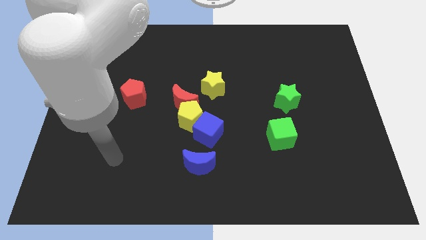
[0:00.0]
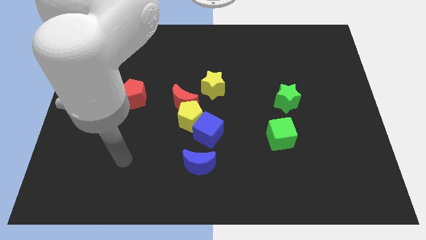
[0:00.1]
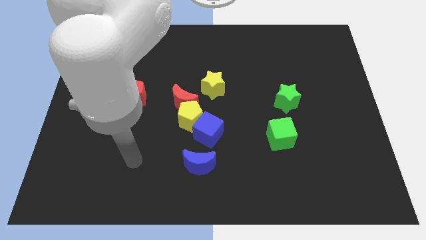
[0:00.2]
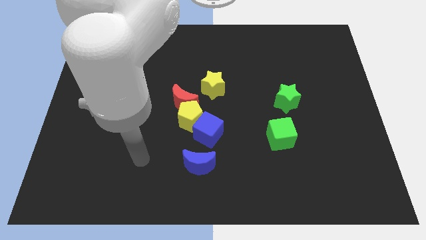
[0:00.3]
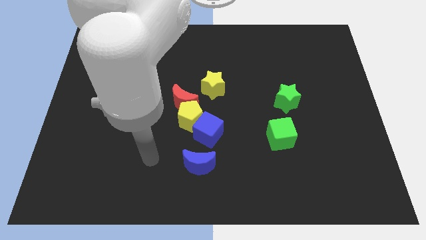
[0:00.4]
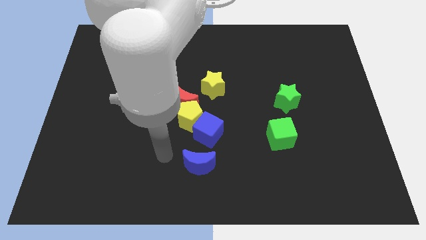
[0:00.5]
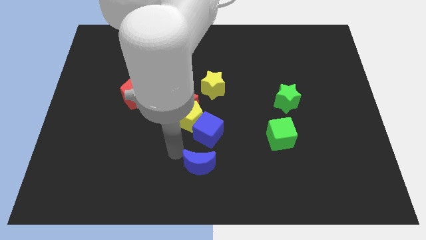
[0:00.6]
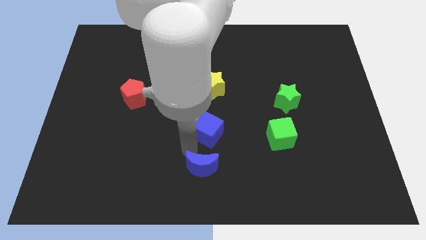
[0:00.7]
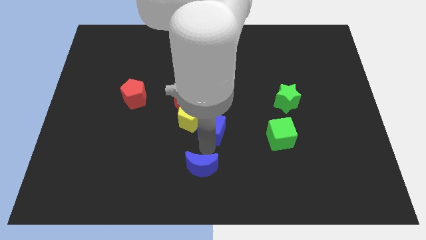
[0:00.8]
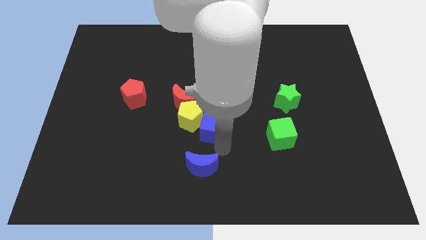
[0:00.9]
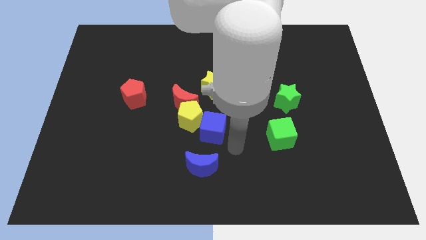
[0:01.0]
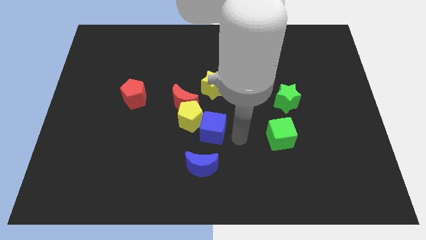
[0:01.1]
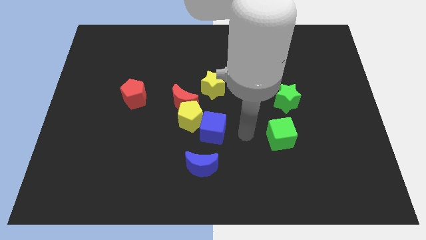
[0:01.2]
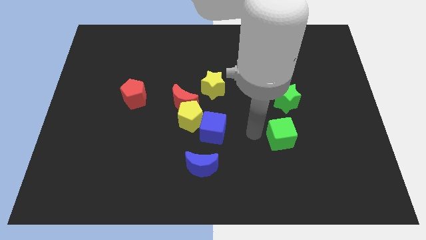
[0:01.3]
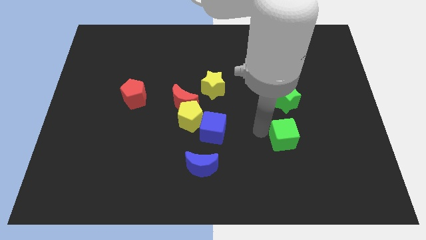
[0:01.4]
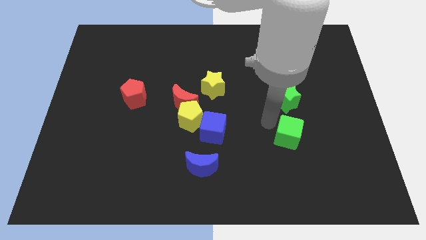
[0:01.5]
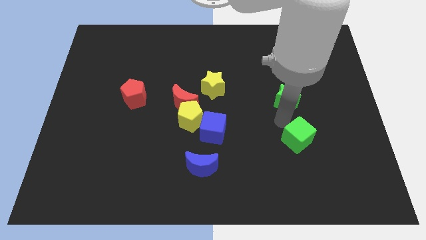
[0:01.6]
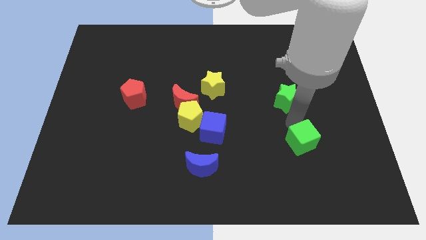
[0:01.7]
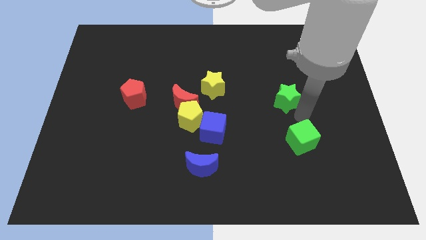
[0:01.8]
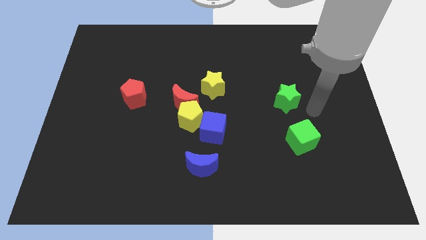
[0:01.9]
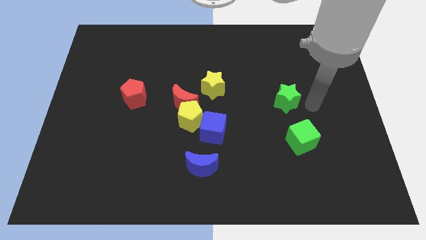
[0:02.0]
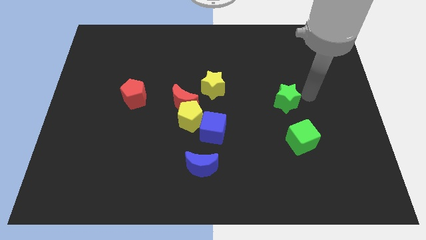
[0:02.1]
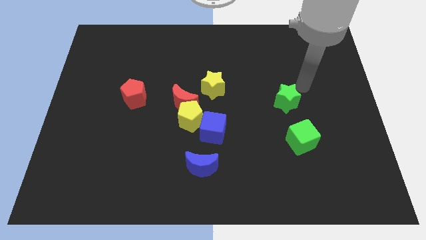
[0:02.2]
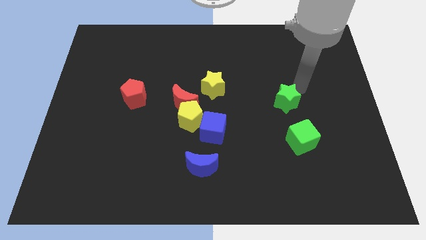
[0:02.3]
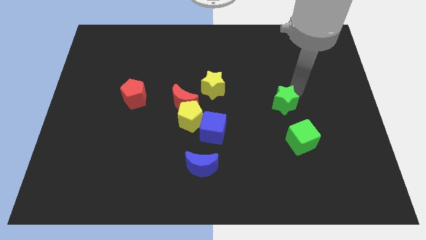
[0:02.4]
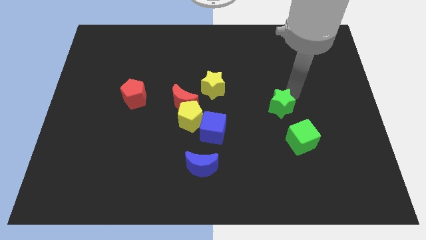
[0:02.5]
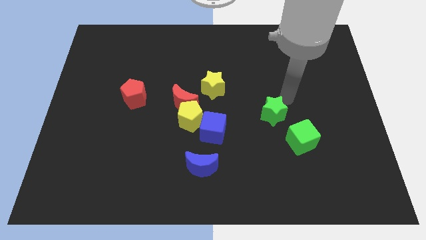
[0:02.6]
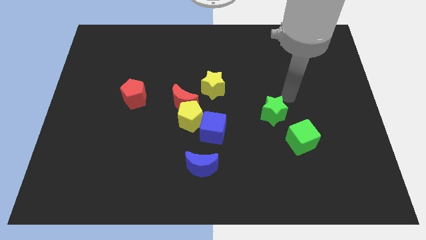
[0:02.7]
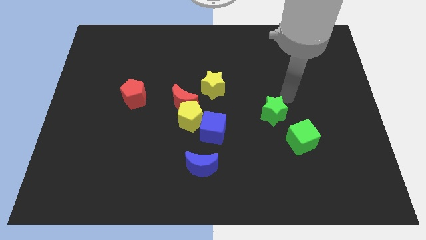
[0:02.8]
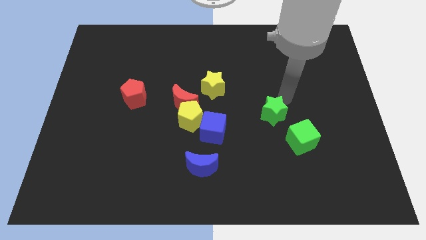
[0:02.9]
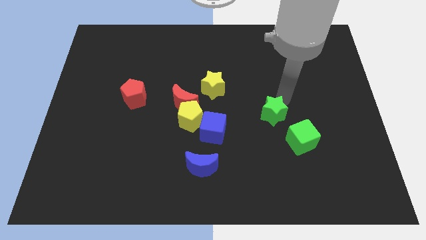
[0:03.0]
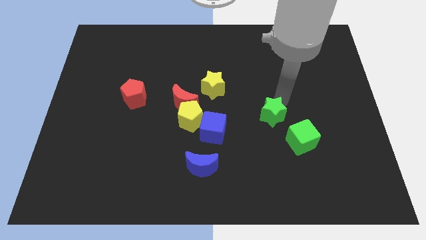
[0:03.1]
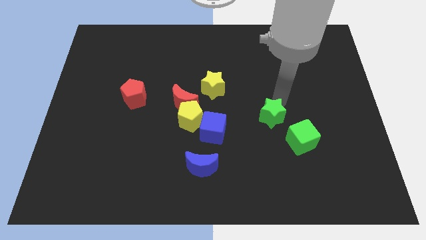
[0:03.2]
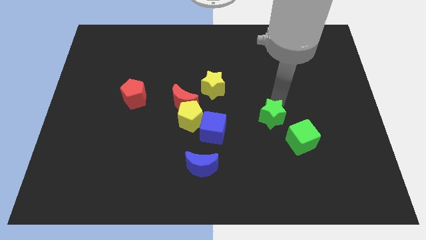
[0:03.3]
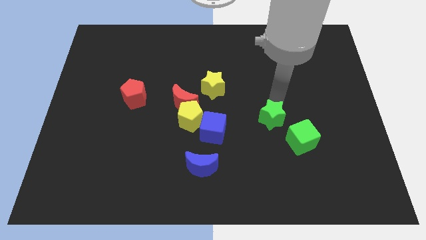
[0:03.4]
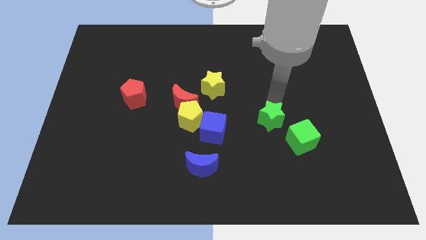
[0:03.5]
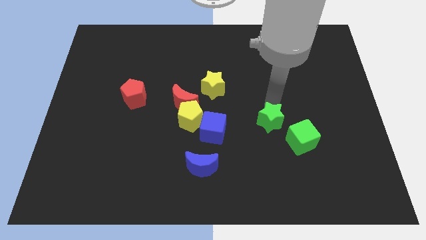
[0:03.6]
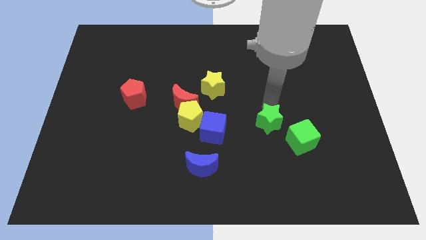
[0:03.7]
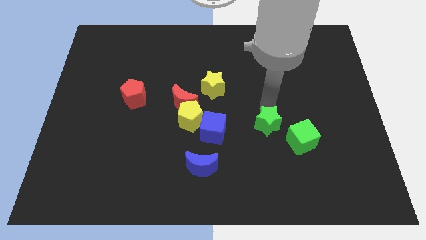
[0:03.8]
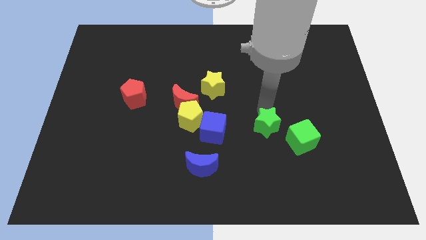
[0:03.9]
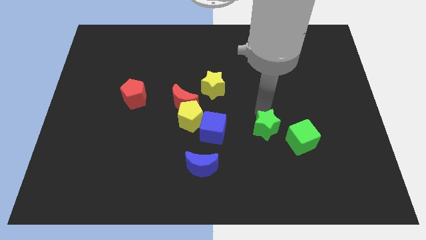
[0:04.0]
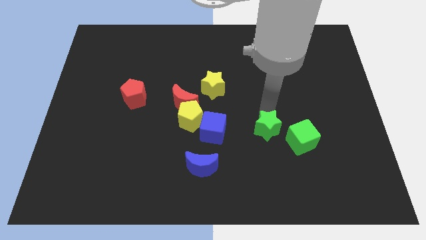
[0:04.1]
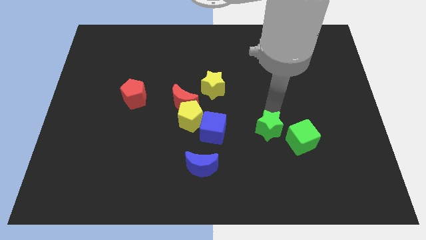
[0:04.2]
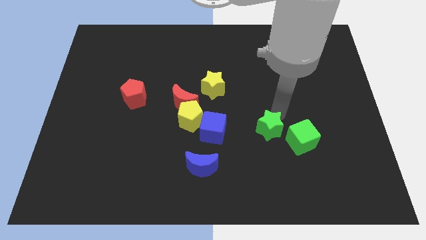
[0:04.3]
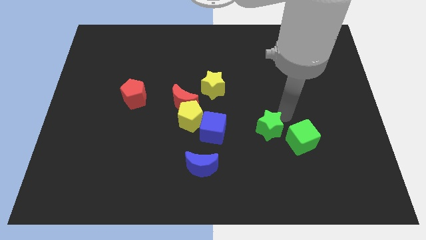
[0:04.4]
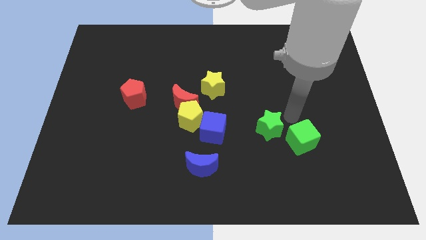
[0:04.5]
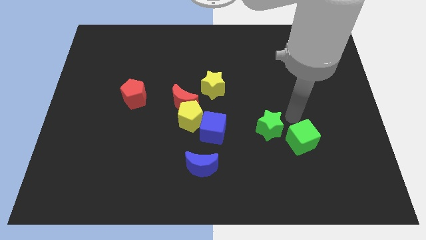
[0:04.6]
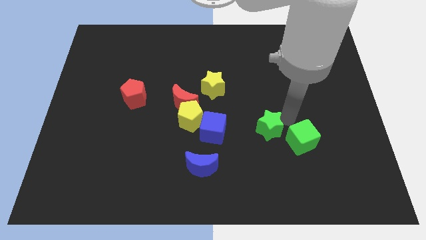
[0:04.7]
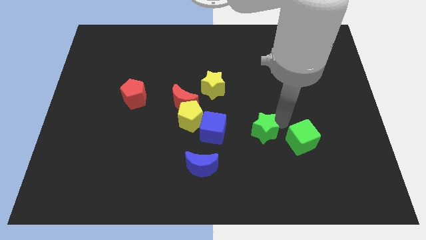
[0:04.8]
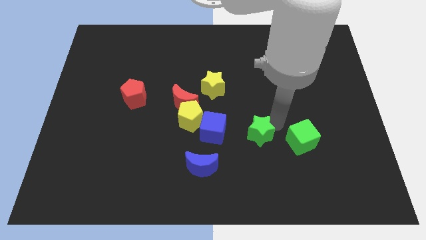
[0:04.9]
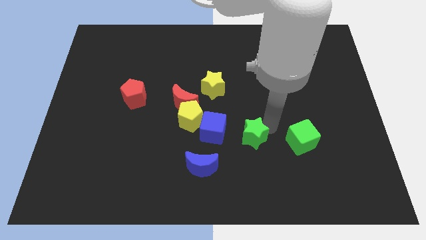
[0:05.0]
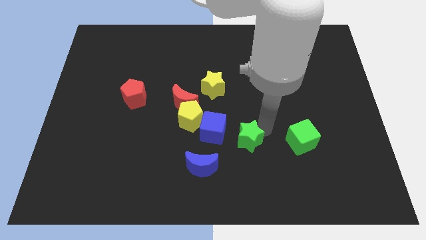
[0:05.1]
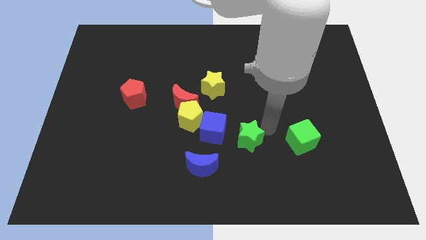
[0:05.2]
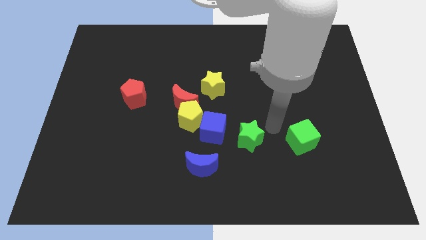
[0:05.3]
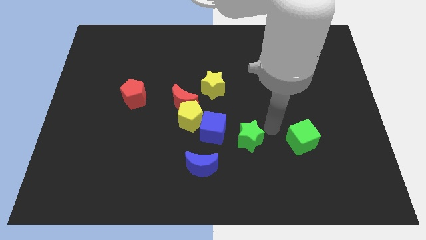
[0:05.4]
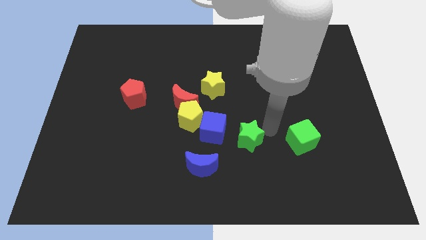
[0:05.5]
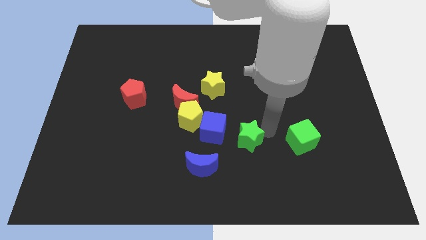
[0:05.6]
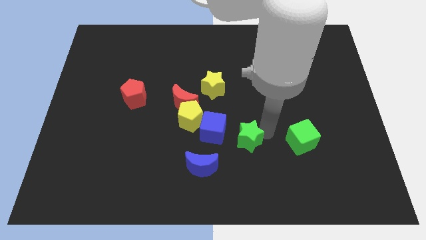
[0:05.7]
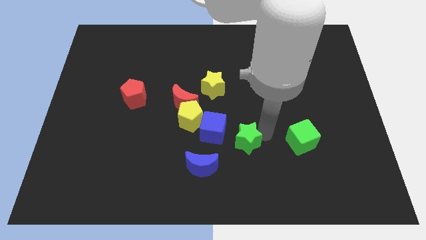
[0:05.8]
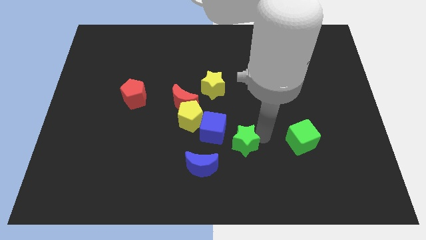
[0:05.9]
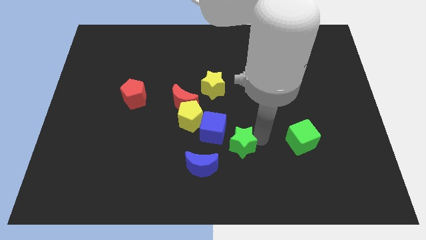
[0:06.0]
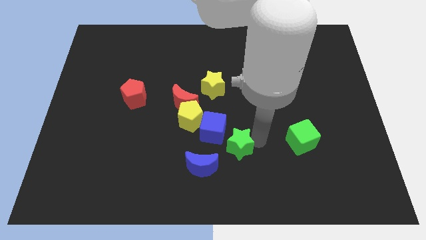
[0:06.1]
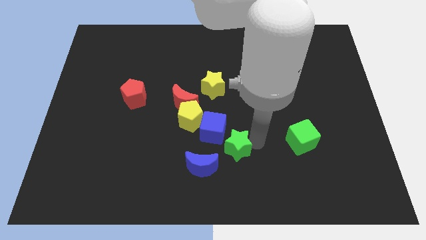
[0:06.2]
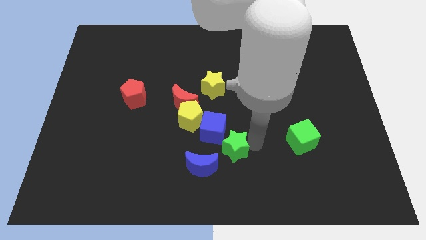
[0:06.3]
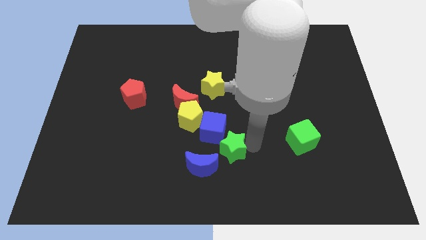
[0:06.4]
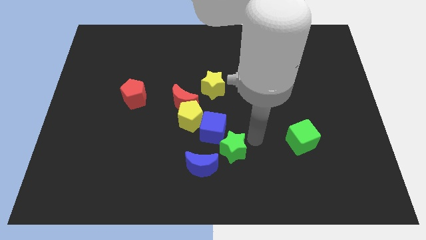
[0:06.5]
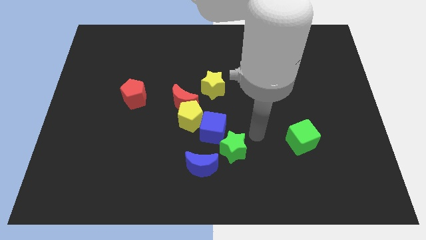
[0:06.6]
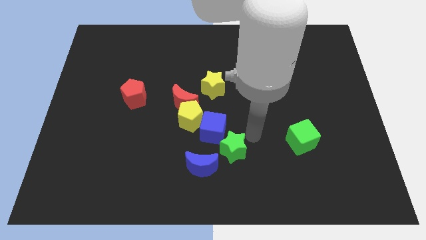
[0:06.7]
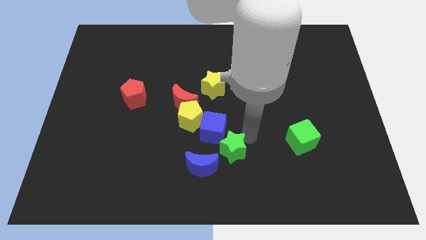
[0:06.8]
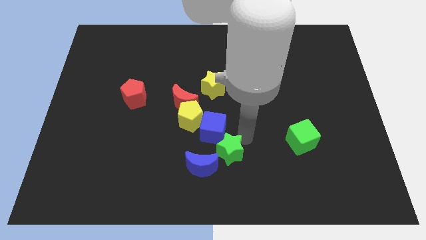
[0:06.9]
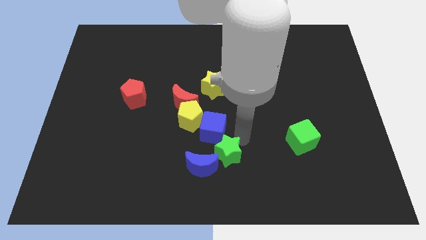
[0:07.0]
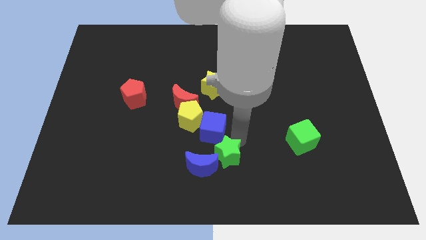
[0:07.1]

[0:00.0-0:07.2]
move the green star to the blue moon
